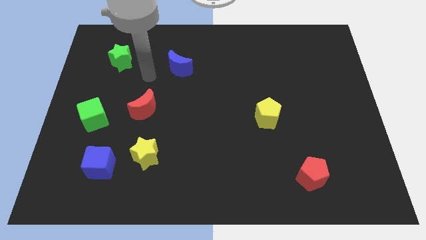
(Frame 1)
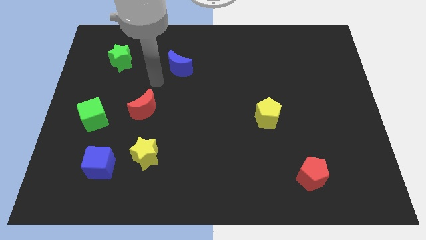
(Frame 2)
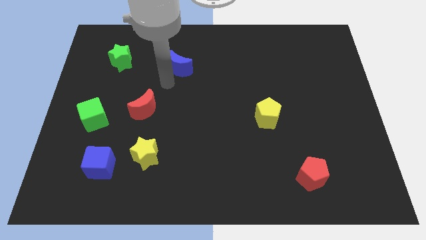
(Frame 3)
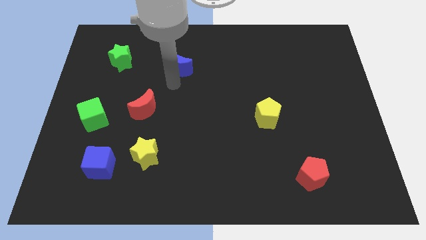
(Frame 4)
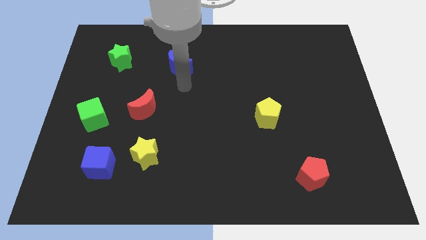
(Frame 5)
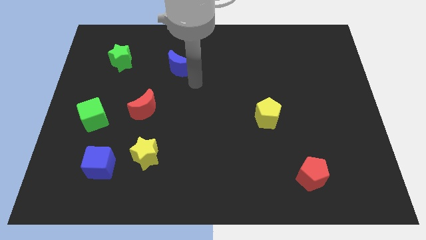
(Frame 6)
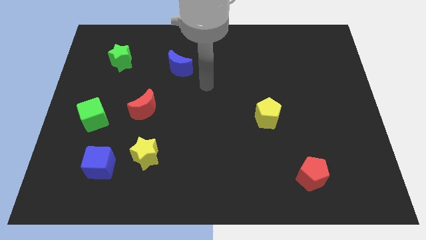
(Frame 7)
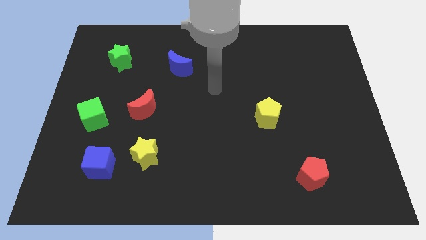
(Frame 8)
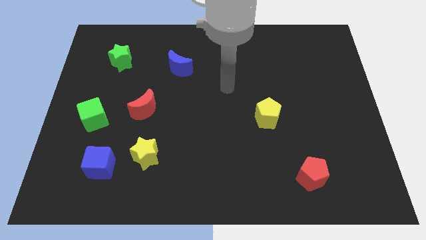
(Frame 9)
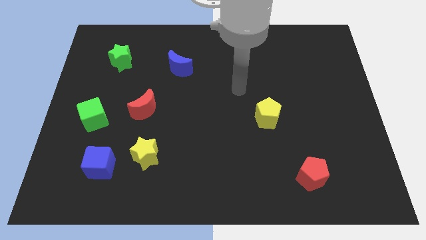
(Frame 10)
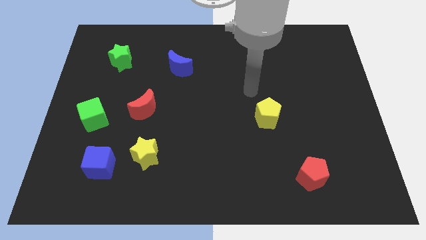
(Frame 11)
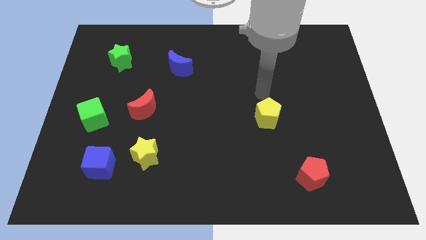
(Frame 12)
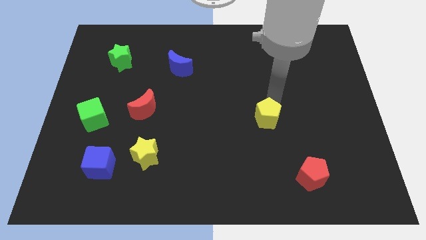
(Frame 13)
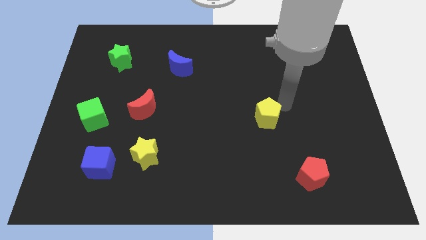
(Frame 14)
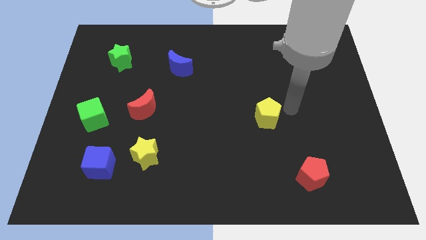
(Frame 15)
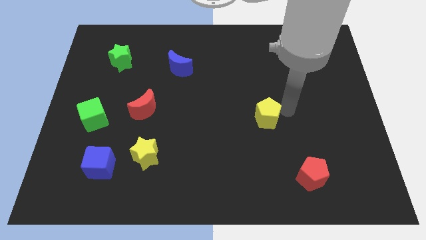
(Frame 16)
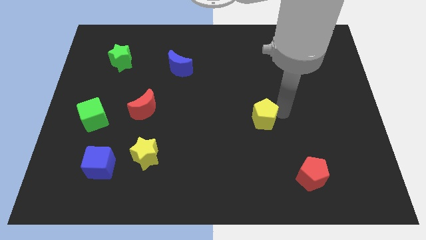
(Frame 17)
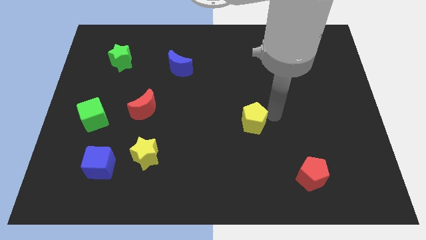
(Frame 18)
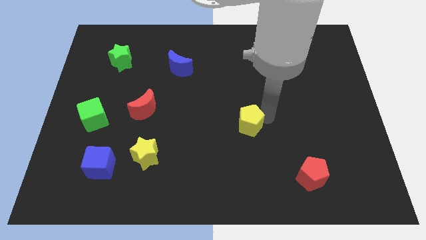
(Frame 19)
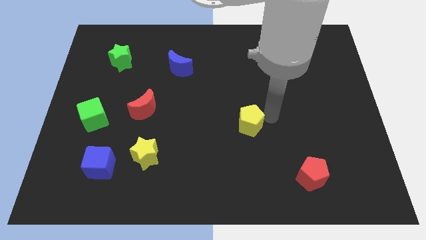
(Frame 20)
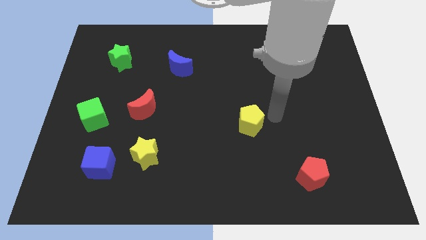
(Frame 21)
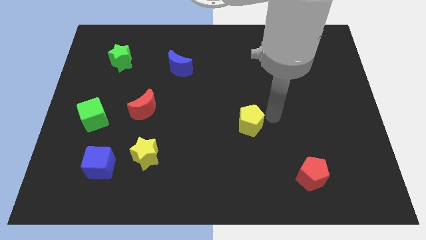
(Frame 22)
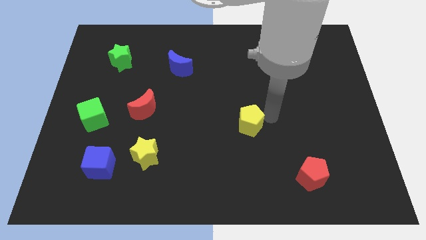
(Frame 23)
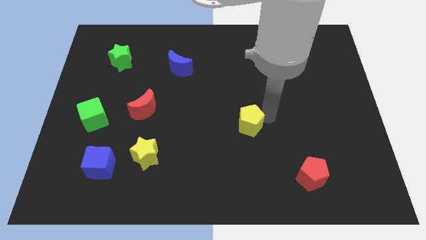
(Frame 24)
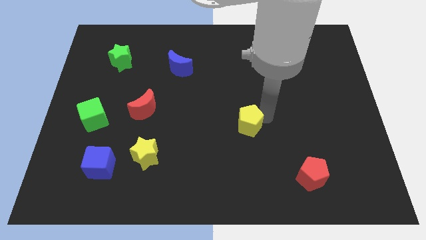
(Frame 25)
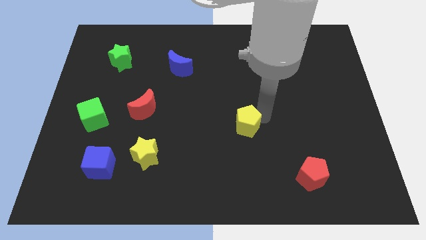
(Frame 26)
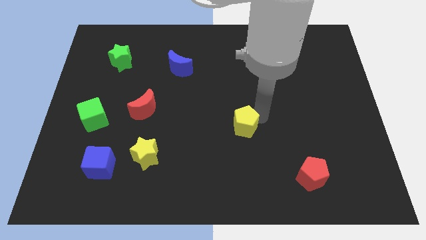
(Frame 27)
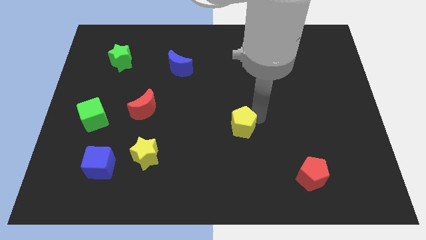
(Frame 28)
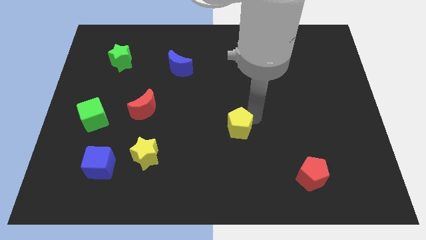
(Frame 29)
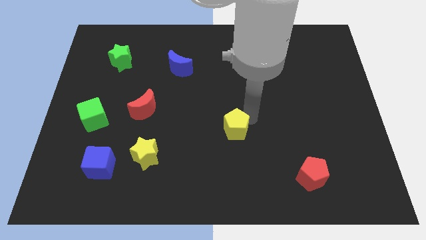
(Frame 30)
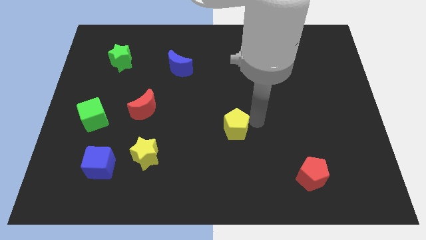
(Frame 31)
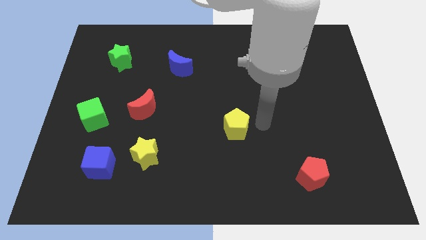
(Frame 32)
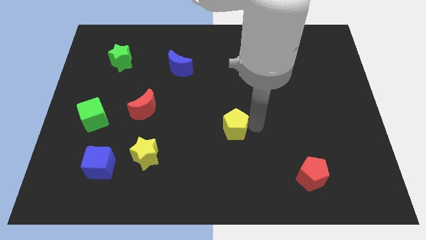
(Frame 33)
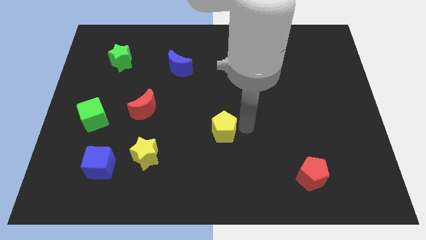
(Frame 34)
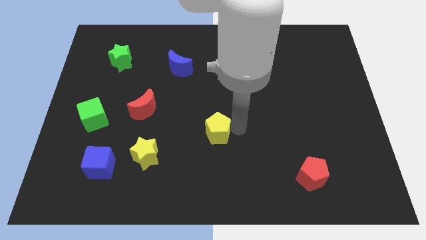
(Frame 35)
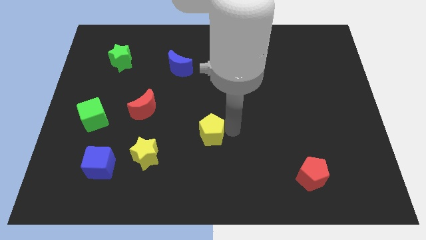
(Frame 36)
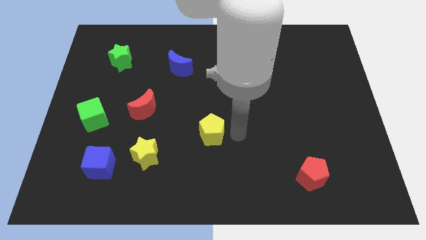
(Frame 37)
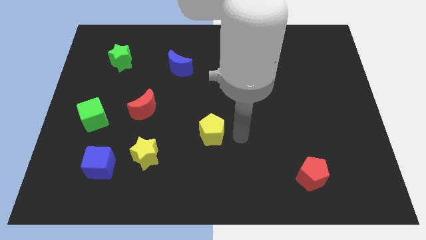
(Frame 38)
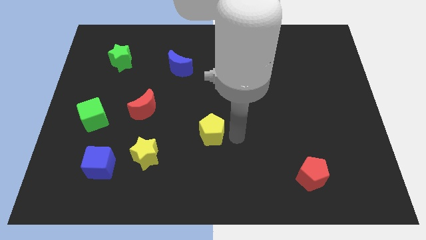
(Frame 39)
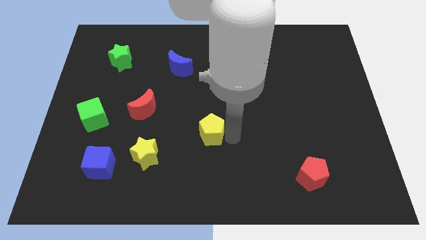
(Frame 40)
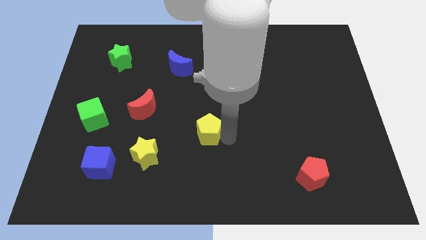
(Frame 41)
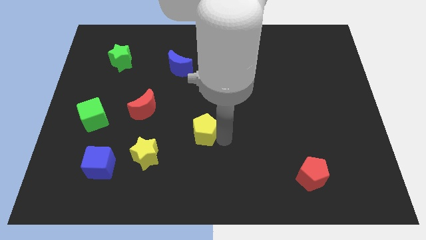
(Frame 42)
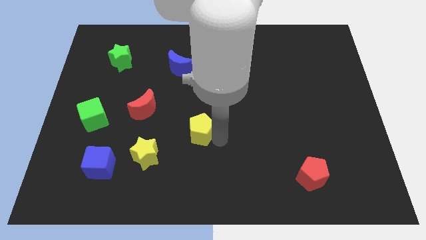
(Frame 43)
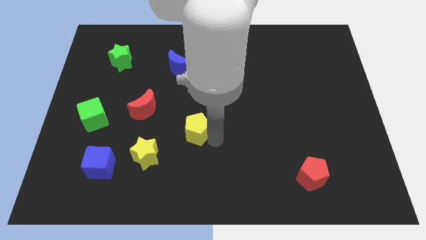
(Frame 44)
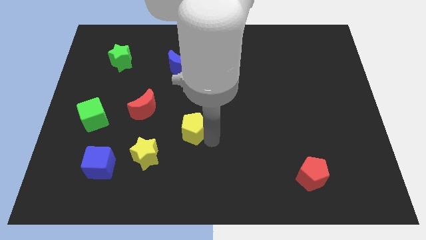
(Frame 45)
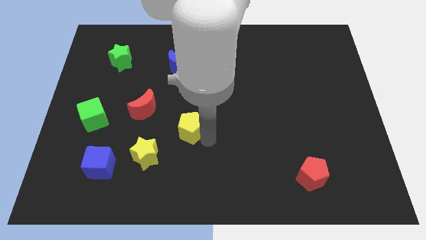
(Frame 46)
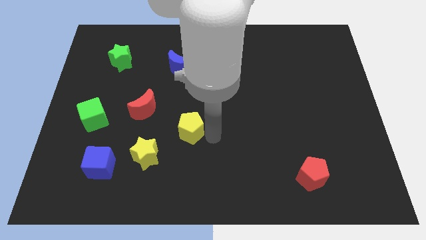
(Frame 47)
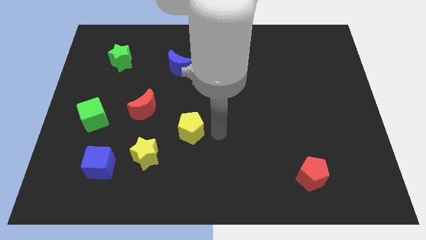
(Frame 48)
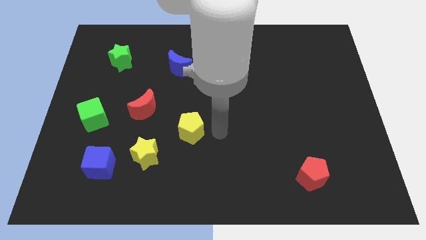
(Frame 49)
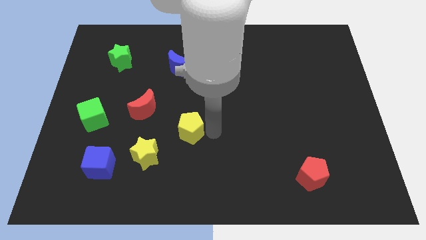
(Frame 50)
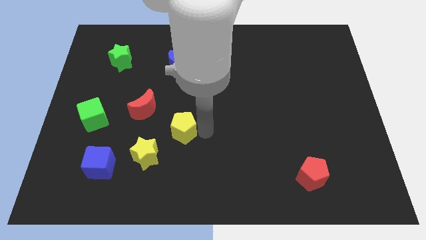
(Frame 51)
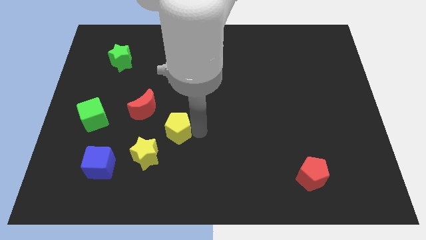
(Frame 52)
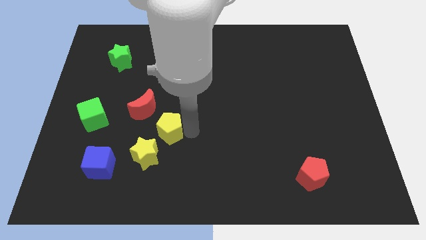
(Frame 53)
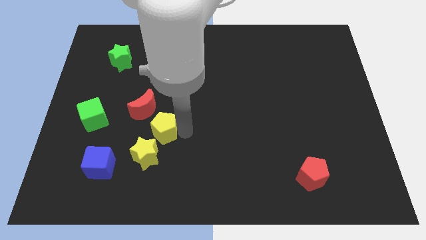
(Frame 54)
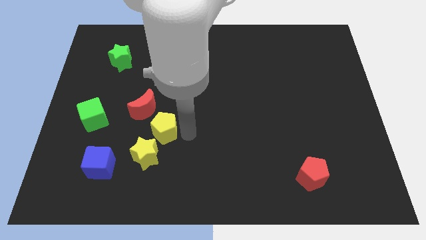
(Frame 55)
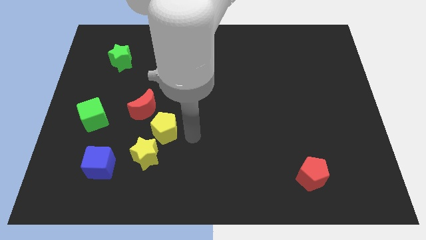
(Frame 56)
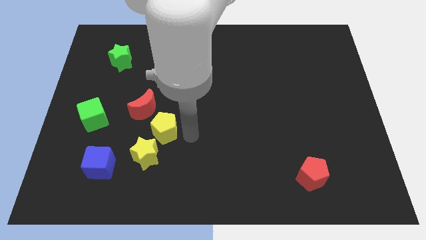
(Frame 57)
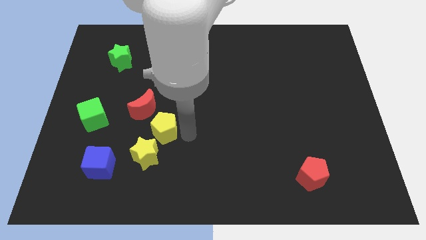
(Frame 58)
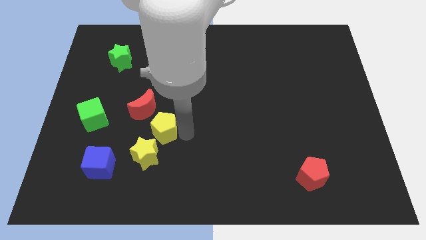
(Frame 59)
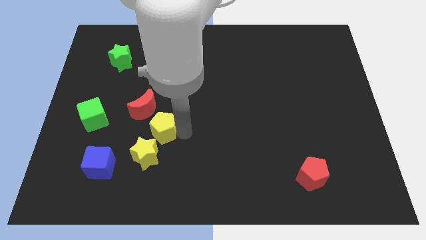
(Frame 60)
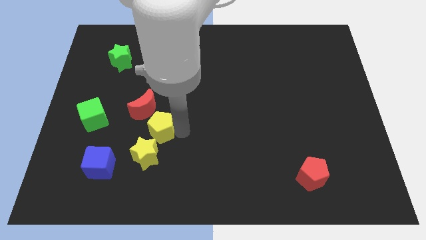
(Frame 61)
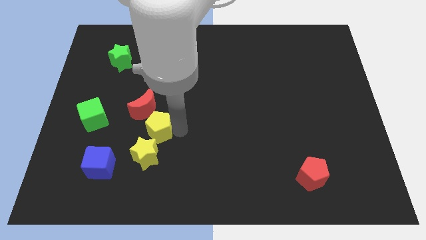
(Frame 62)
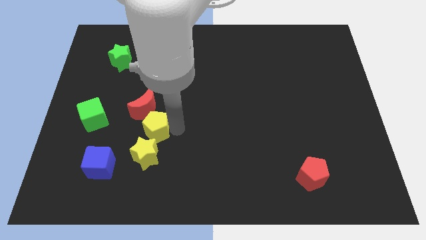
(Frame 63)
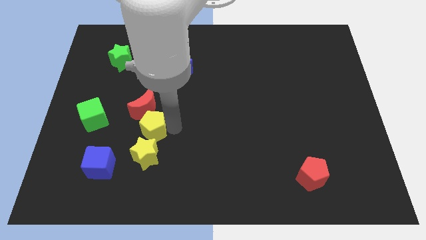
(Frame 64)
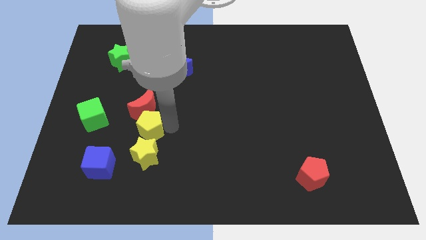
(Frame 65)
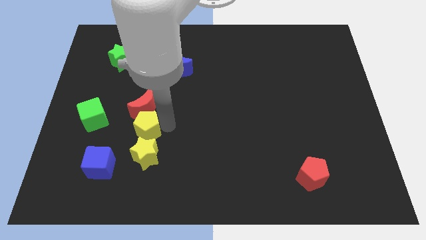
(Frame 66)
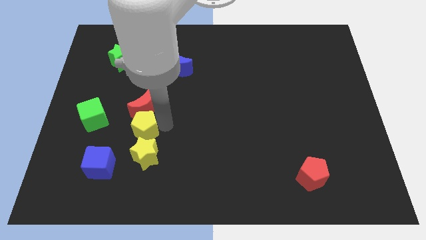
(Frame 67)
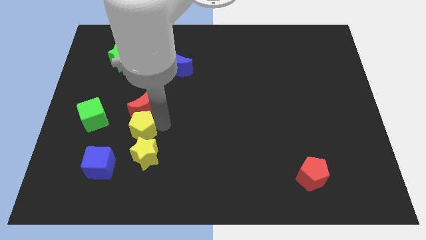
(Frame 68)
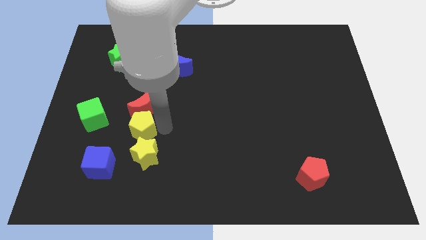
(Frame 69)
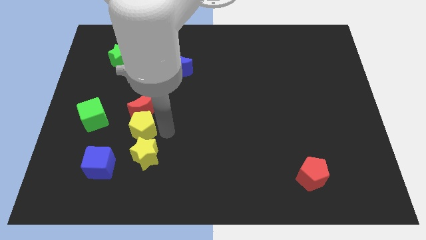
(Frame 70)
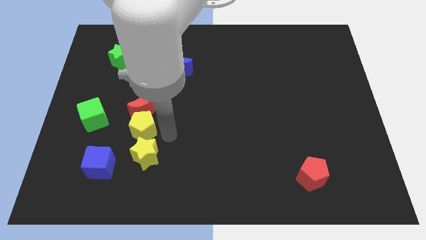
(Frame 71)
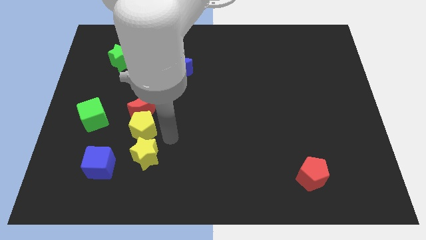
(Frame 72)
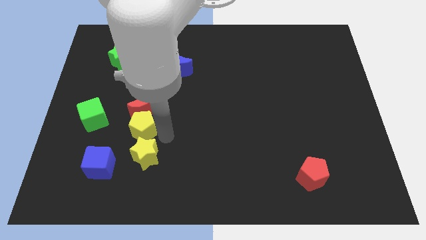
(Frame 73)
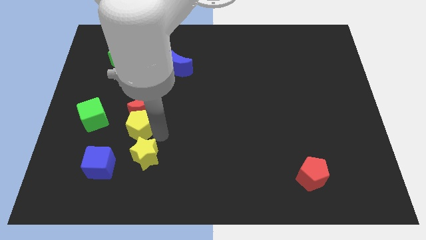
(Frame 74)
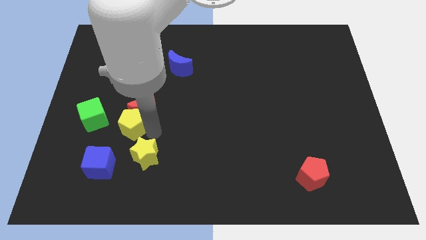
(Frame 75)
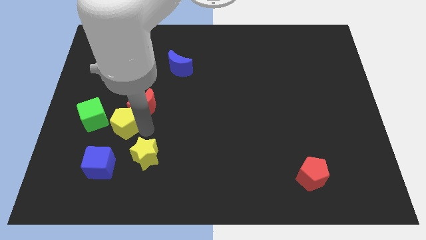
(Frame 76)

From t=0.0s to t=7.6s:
put the yellow pentagon to the top side of the blue cube
